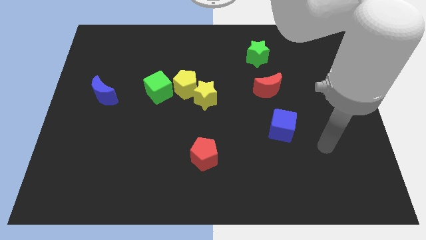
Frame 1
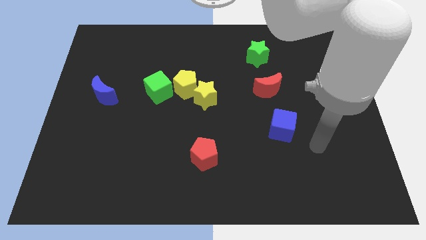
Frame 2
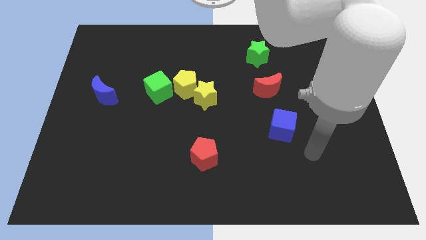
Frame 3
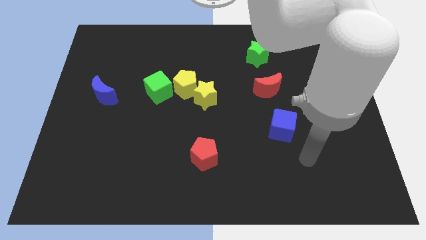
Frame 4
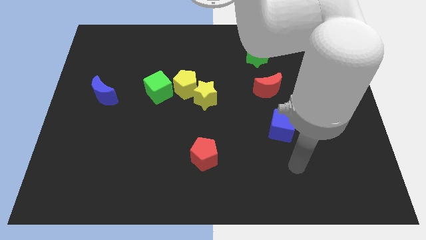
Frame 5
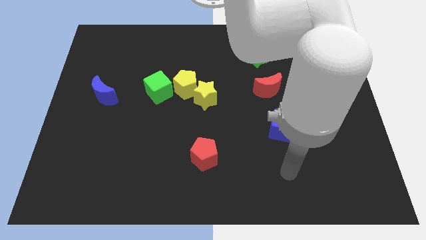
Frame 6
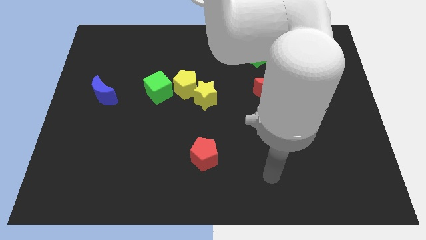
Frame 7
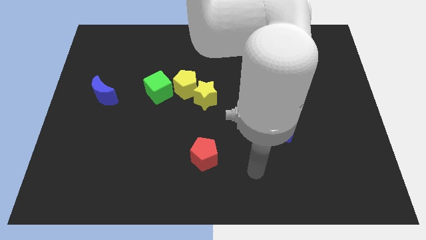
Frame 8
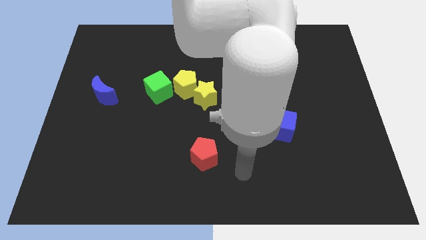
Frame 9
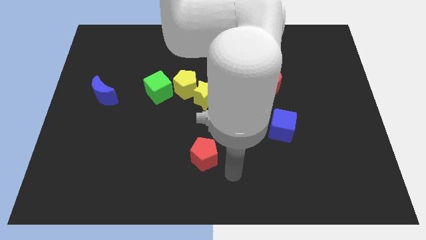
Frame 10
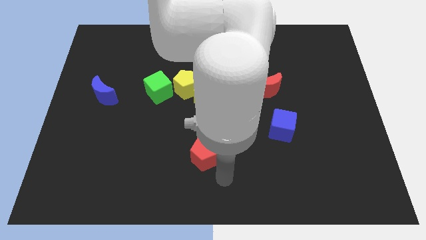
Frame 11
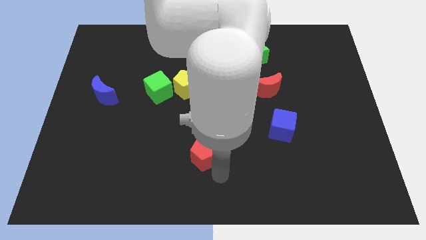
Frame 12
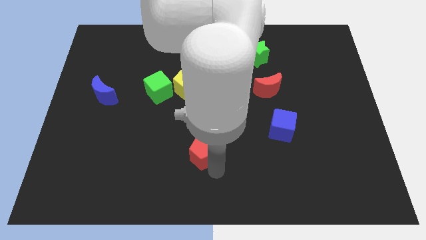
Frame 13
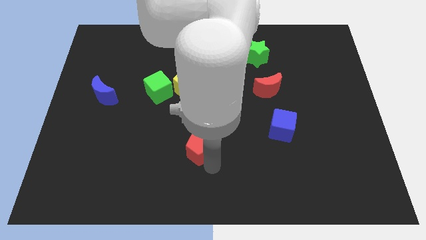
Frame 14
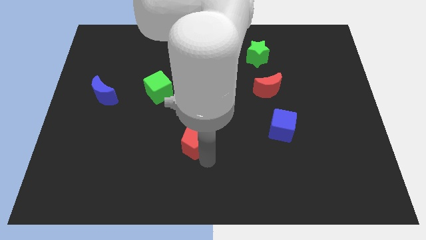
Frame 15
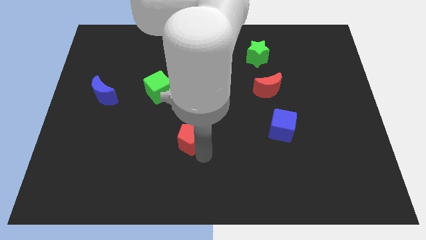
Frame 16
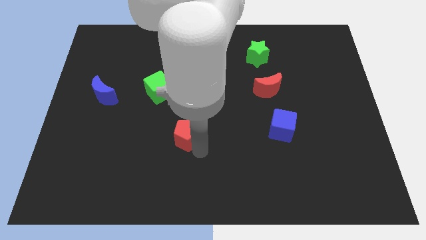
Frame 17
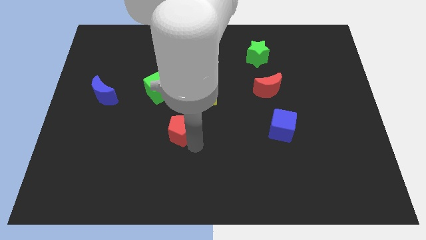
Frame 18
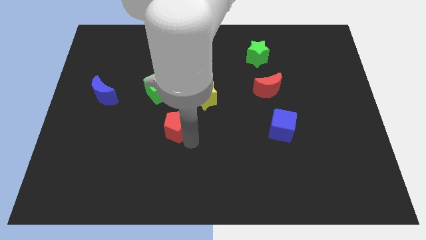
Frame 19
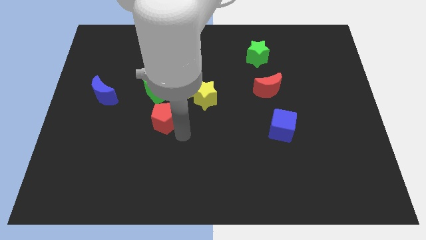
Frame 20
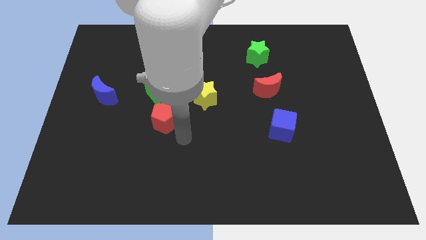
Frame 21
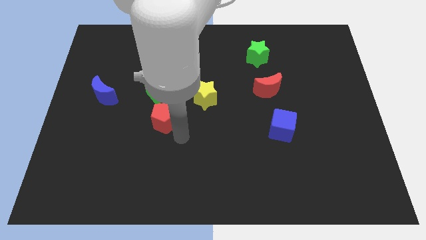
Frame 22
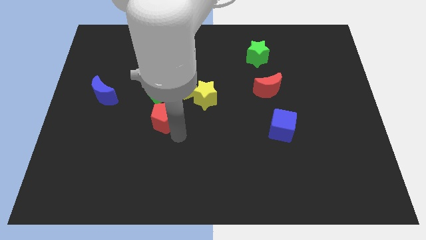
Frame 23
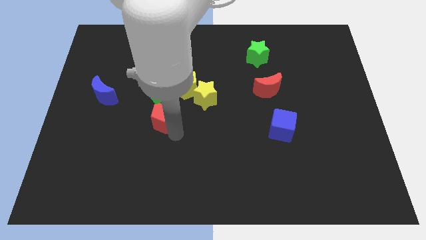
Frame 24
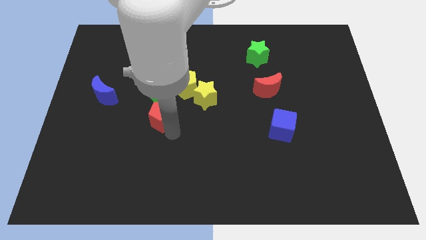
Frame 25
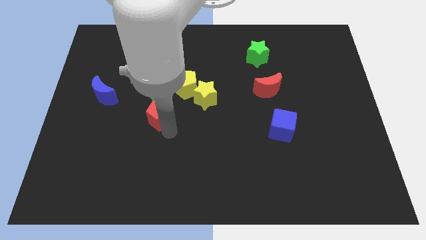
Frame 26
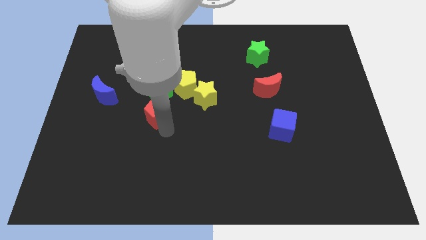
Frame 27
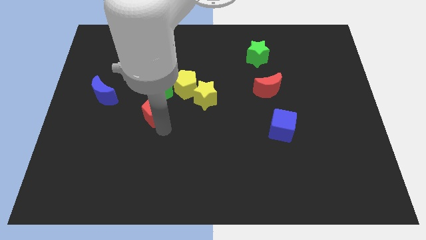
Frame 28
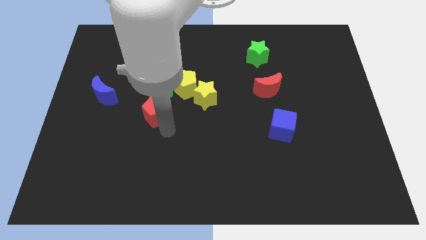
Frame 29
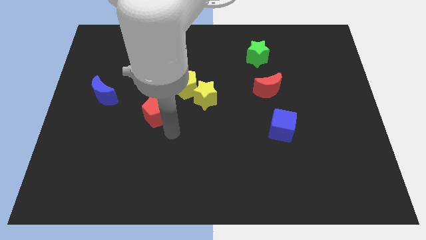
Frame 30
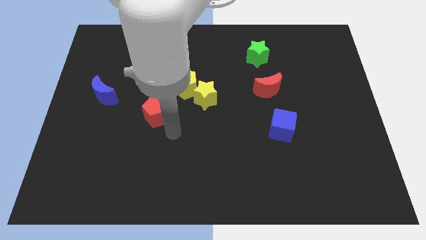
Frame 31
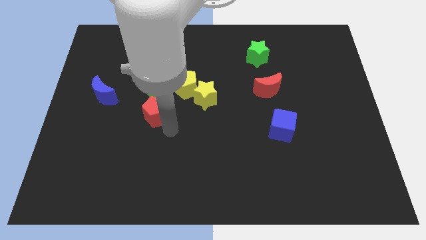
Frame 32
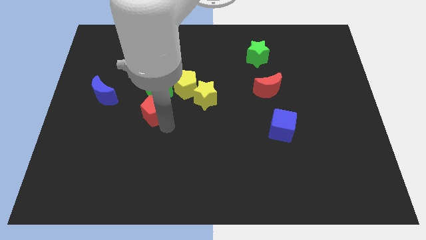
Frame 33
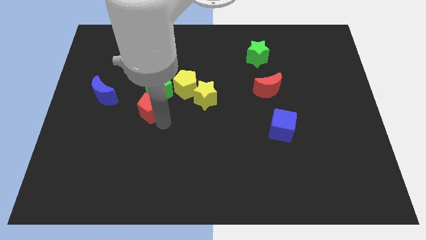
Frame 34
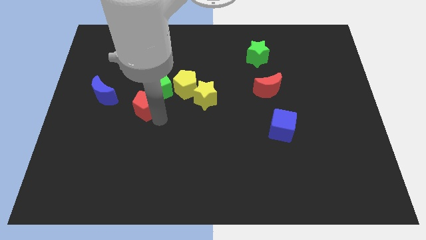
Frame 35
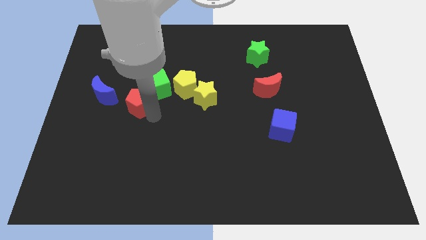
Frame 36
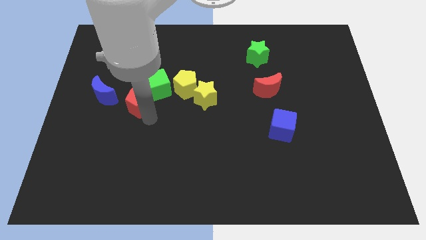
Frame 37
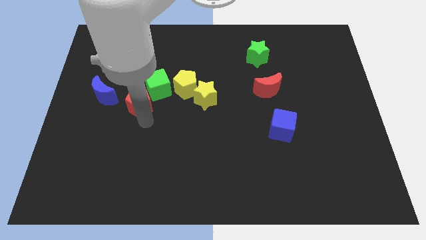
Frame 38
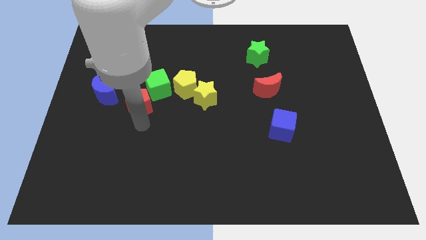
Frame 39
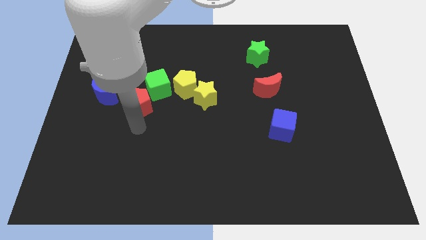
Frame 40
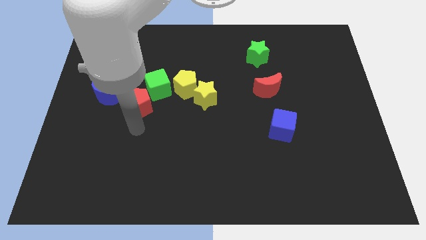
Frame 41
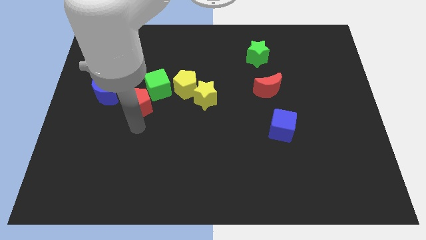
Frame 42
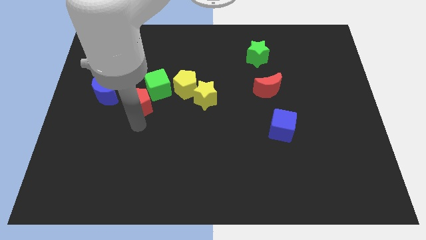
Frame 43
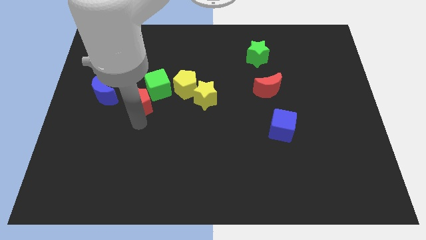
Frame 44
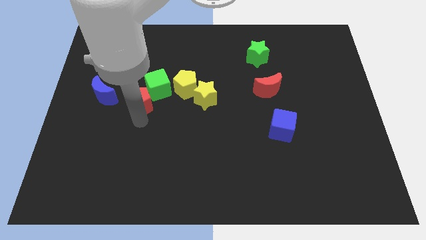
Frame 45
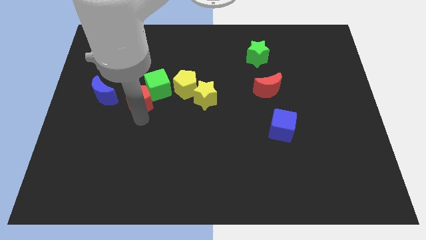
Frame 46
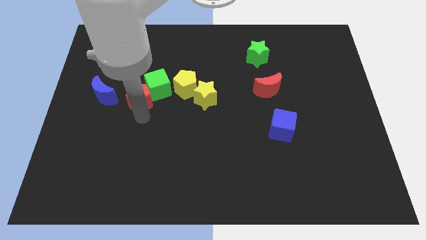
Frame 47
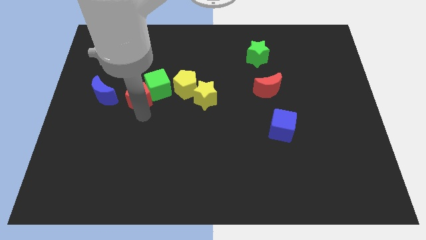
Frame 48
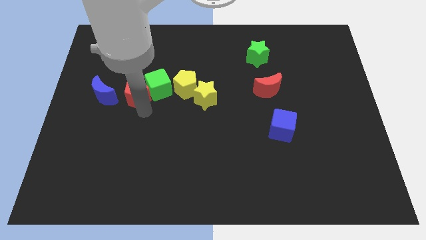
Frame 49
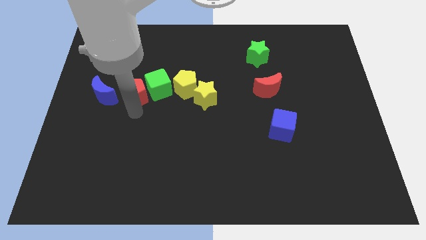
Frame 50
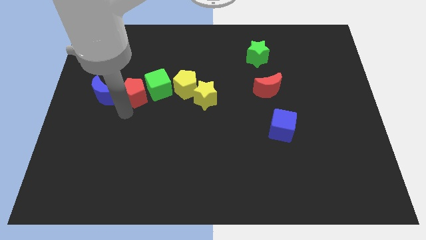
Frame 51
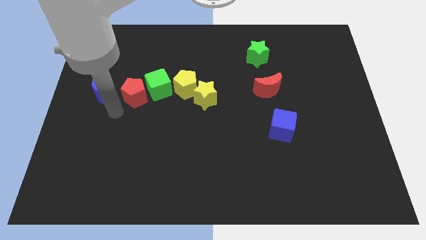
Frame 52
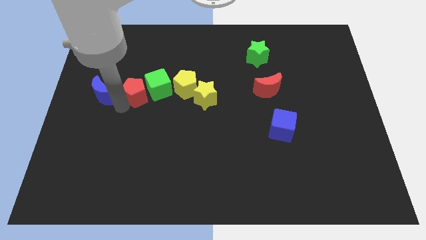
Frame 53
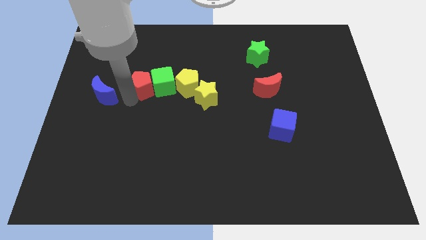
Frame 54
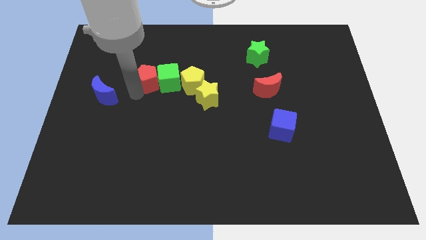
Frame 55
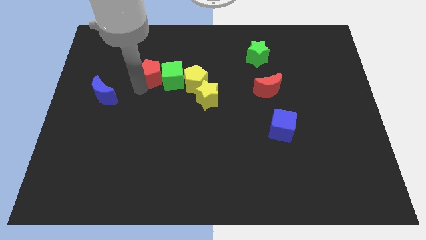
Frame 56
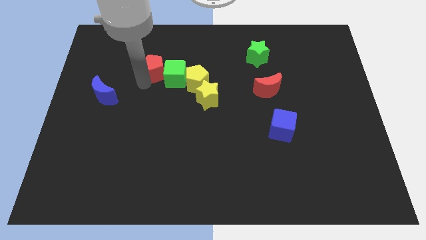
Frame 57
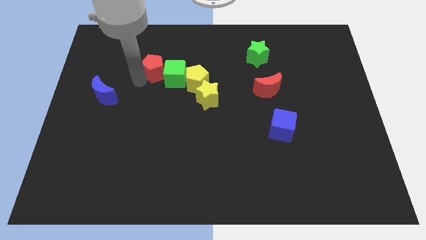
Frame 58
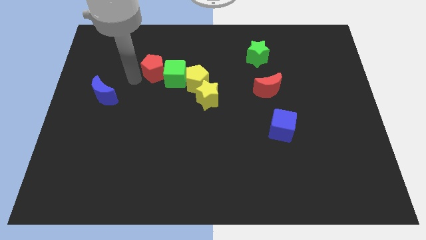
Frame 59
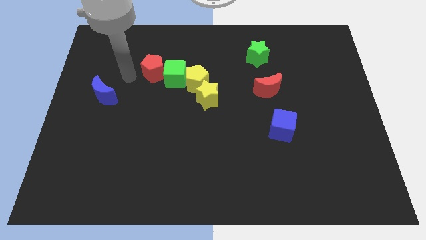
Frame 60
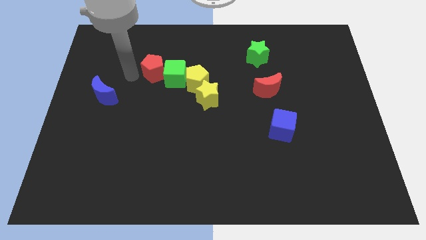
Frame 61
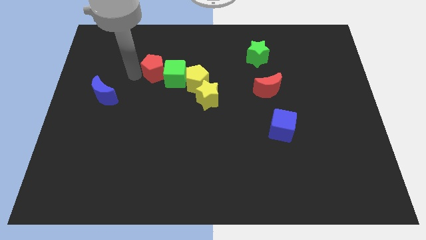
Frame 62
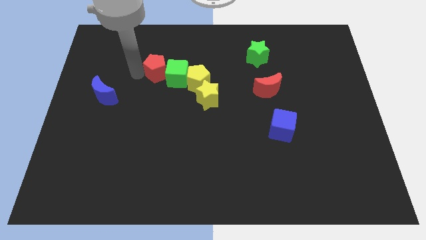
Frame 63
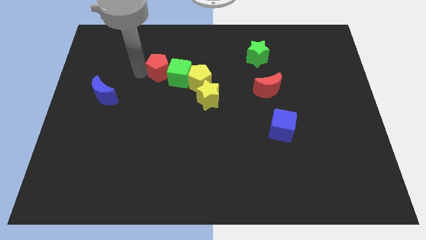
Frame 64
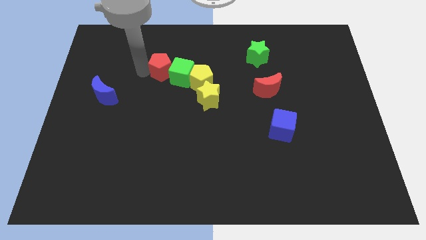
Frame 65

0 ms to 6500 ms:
put the red pentagon diagonally up and to the left of the yellow pentagon

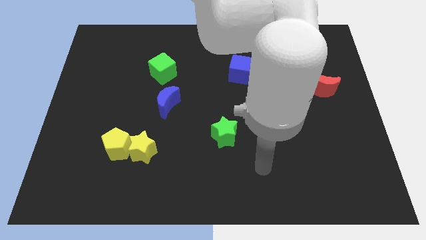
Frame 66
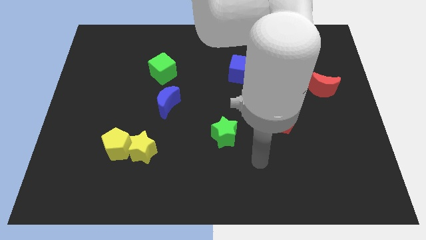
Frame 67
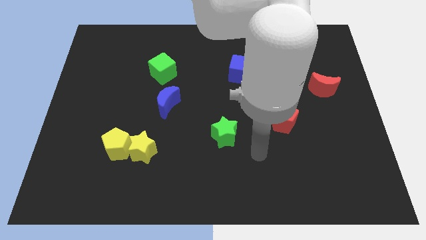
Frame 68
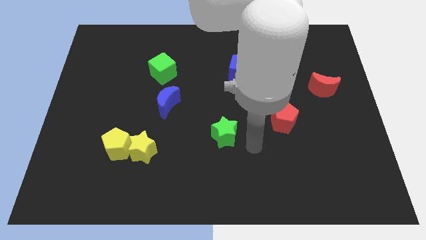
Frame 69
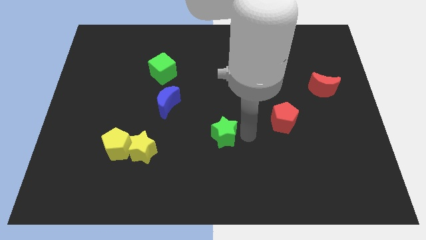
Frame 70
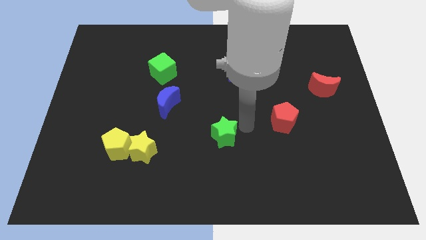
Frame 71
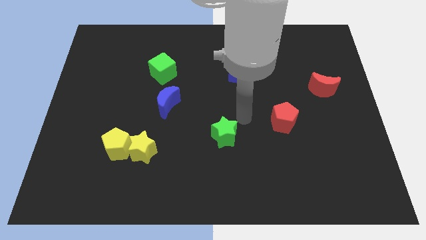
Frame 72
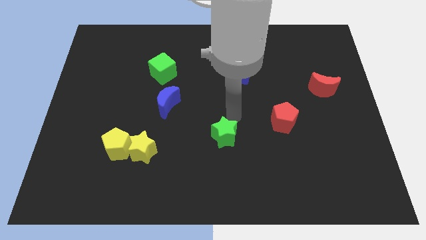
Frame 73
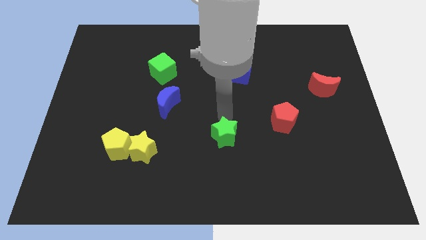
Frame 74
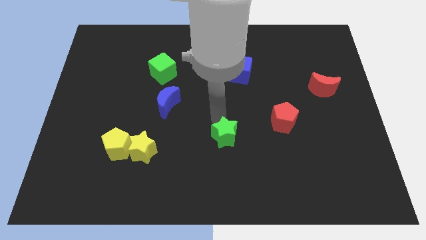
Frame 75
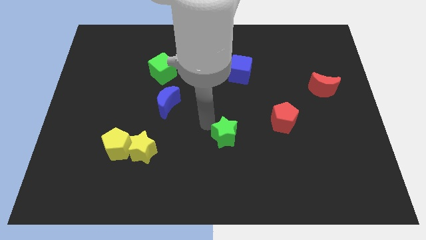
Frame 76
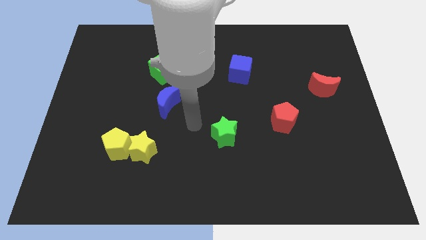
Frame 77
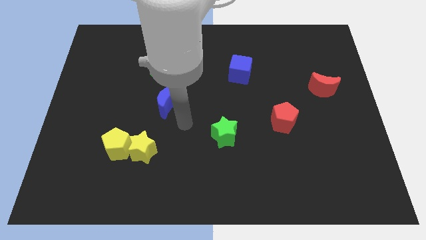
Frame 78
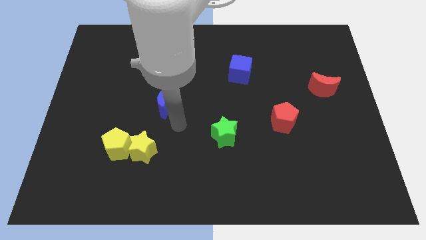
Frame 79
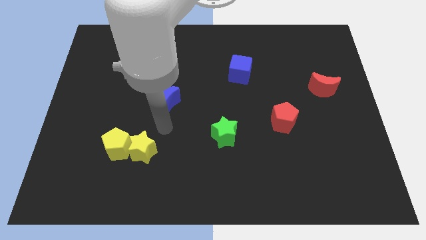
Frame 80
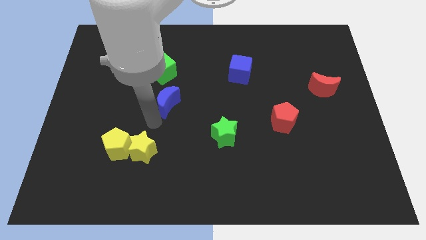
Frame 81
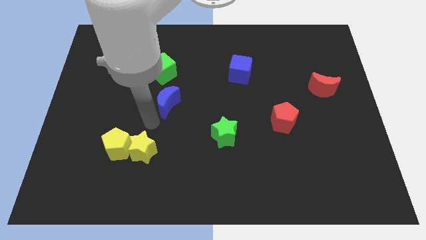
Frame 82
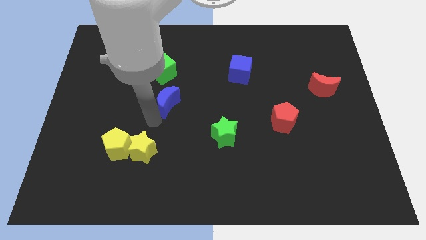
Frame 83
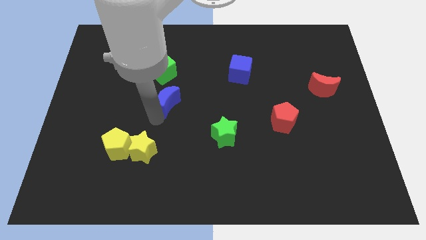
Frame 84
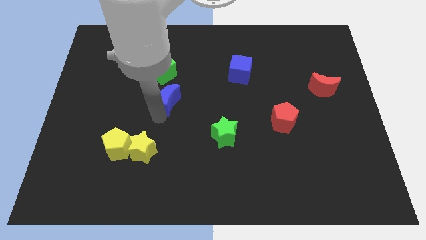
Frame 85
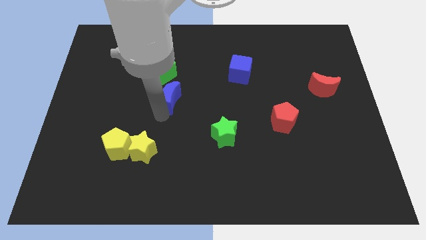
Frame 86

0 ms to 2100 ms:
put the blue moon to the bottom right side of the green cube
